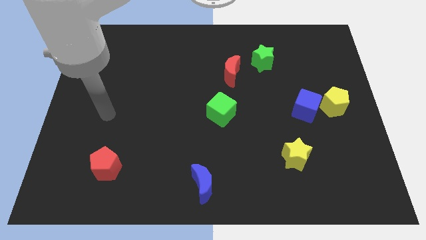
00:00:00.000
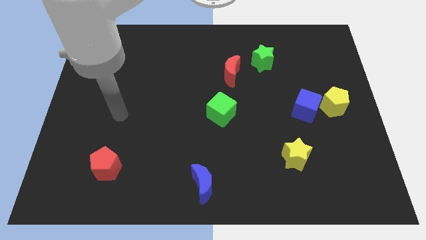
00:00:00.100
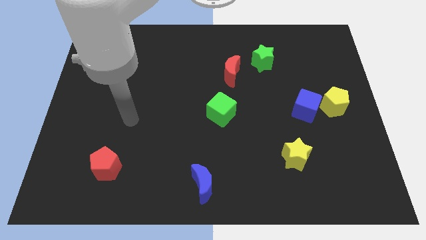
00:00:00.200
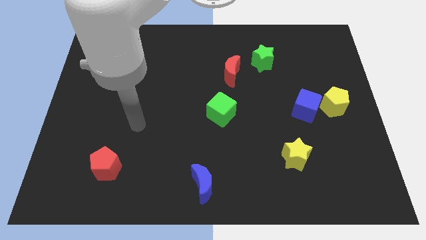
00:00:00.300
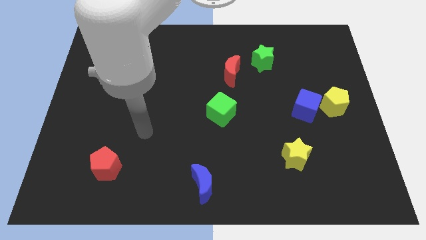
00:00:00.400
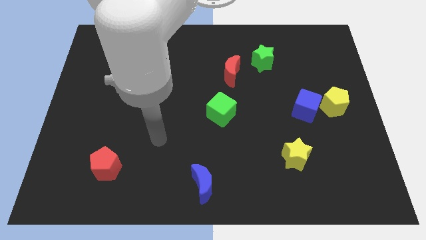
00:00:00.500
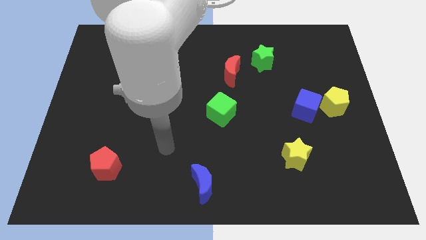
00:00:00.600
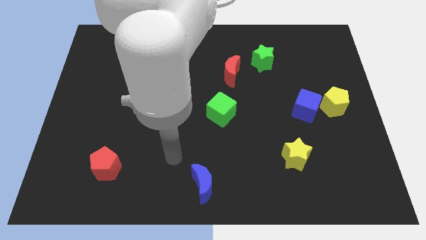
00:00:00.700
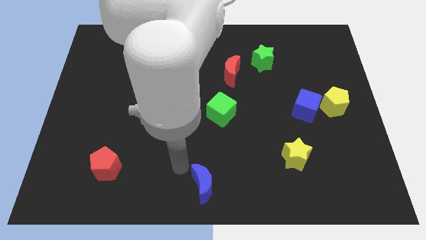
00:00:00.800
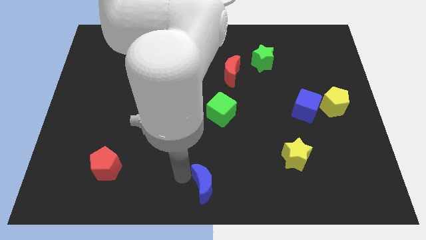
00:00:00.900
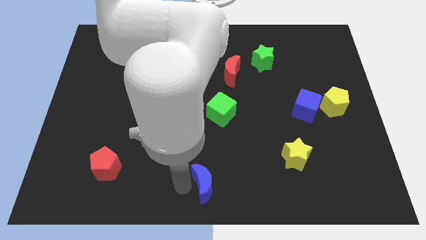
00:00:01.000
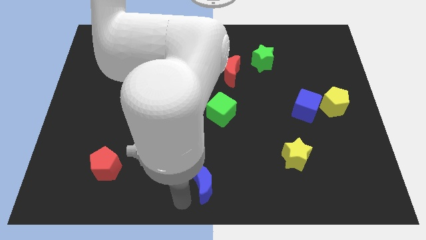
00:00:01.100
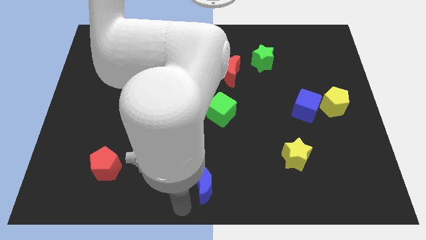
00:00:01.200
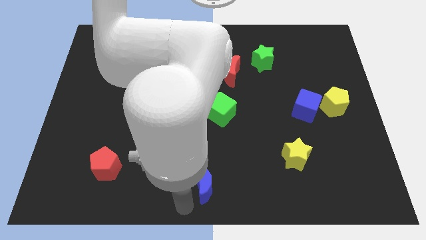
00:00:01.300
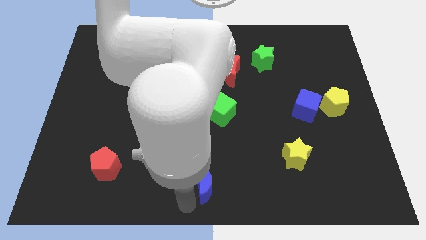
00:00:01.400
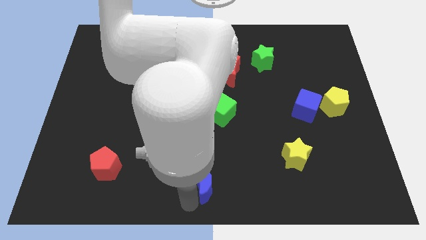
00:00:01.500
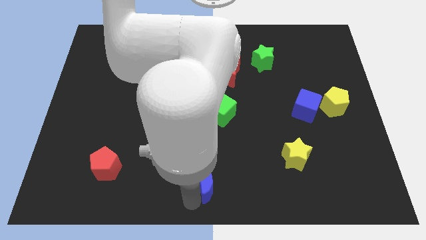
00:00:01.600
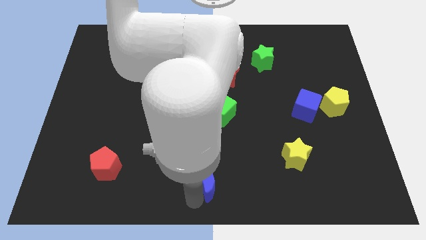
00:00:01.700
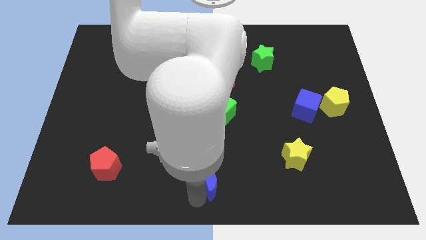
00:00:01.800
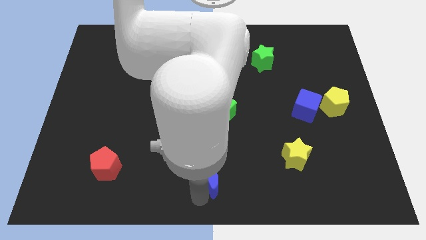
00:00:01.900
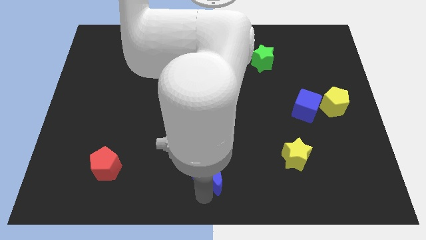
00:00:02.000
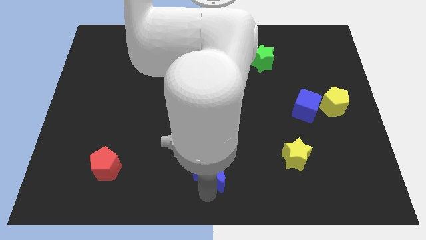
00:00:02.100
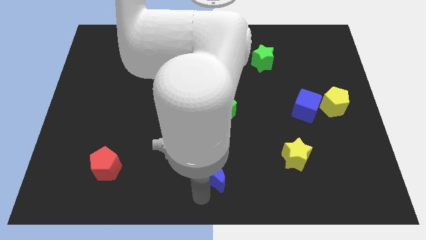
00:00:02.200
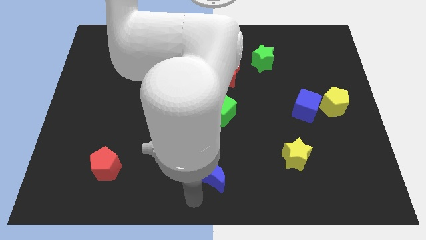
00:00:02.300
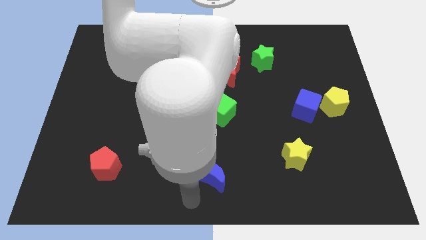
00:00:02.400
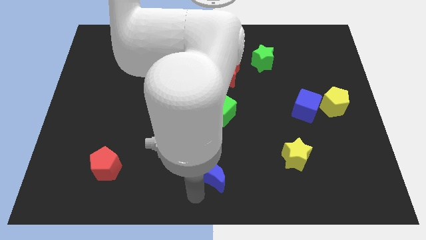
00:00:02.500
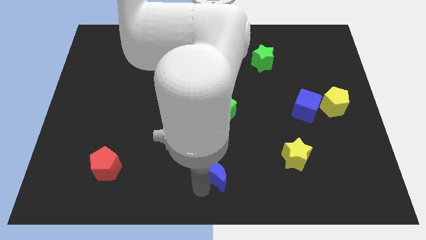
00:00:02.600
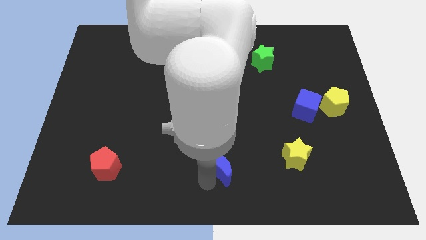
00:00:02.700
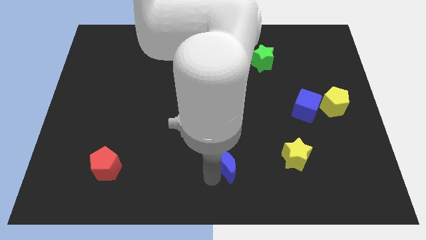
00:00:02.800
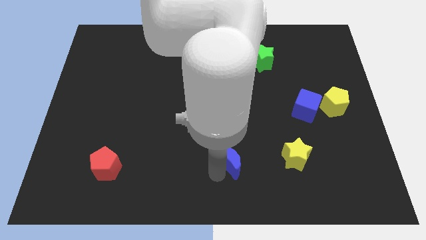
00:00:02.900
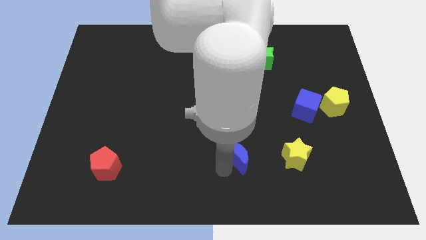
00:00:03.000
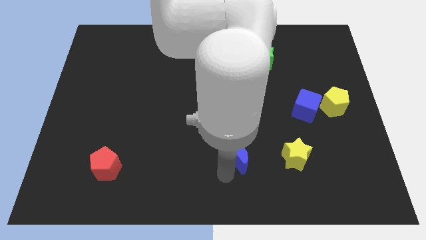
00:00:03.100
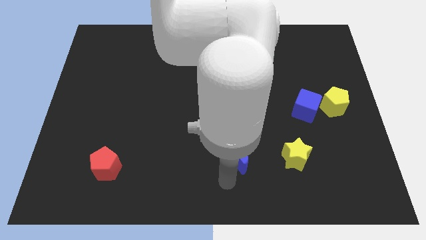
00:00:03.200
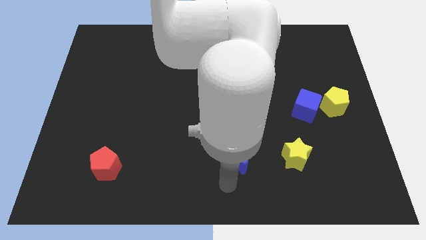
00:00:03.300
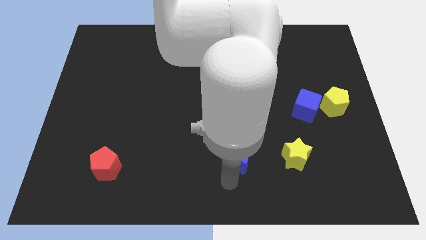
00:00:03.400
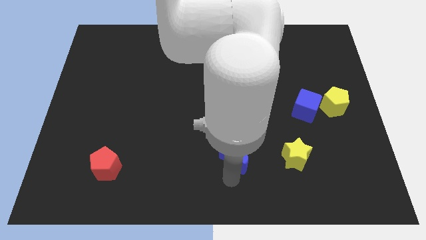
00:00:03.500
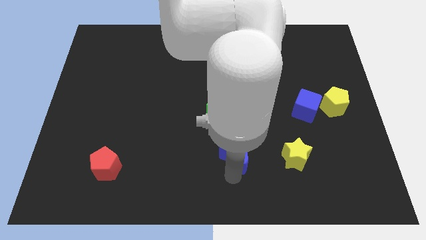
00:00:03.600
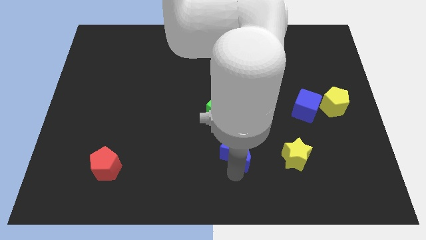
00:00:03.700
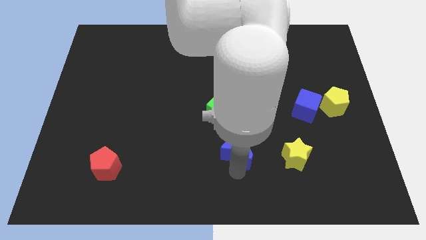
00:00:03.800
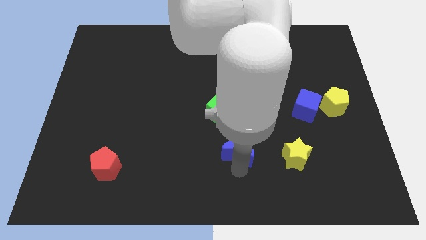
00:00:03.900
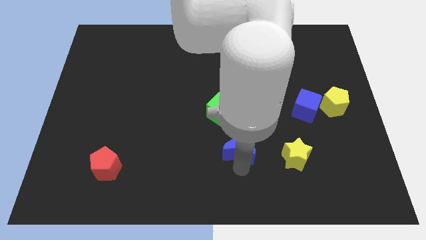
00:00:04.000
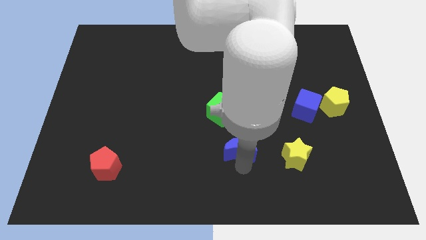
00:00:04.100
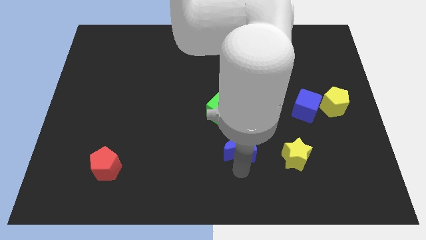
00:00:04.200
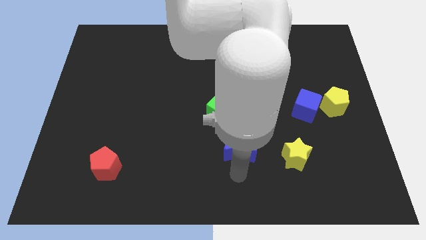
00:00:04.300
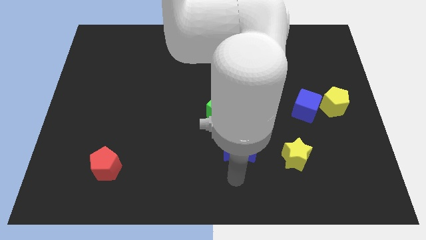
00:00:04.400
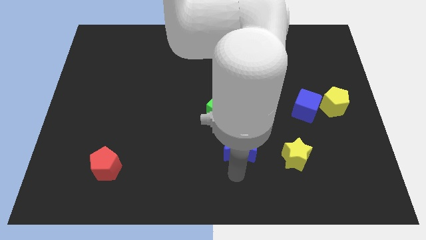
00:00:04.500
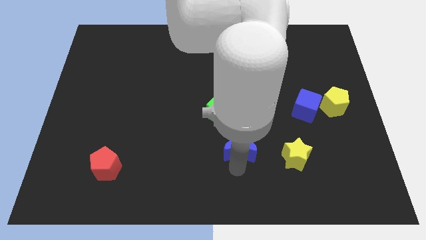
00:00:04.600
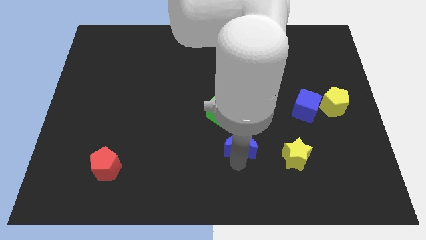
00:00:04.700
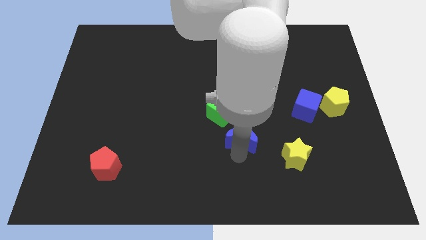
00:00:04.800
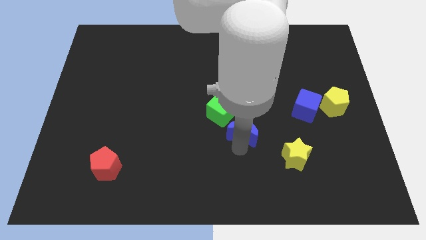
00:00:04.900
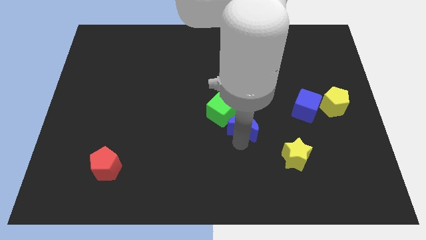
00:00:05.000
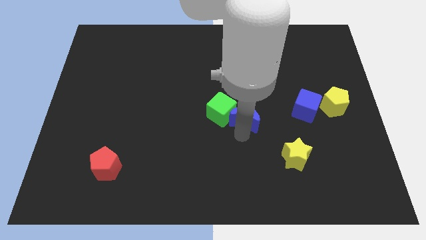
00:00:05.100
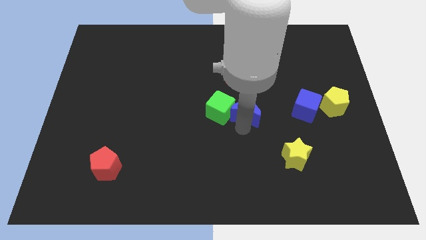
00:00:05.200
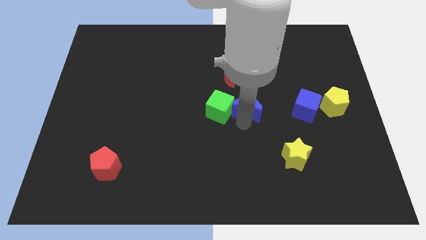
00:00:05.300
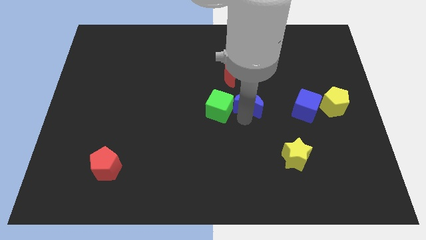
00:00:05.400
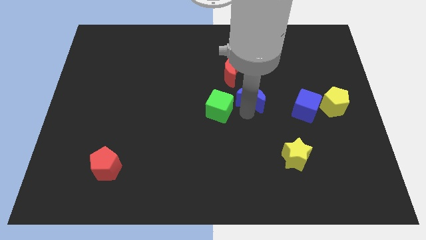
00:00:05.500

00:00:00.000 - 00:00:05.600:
push the blue moon to the bottom right side of the red moon

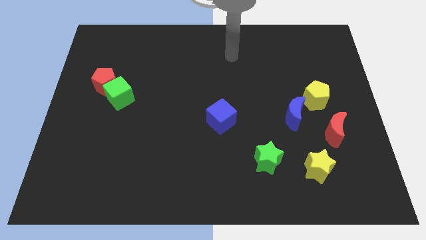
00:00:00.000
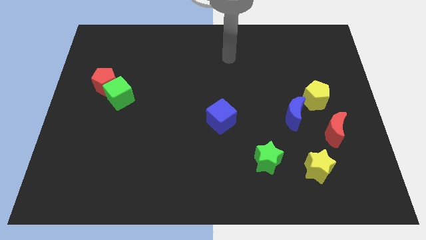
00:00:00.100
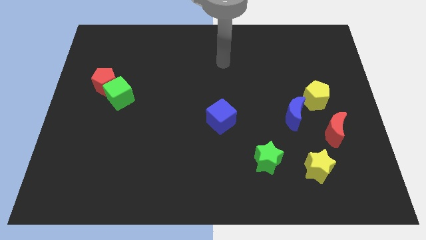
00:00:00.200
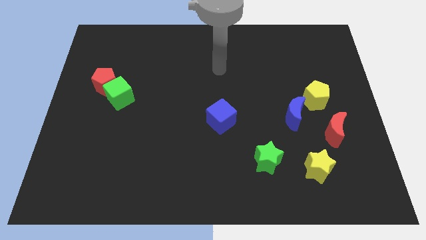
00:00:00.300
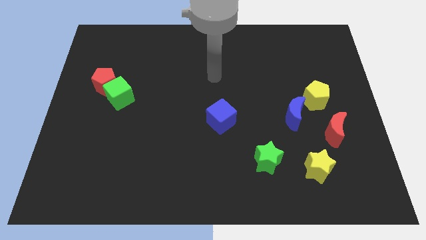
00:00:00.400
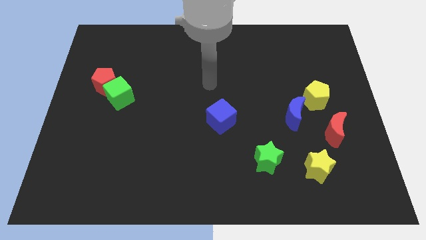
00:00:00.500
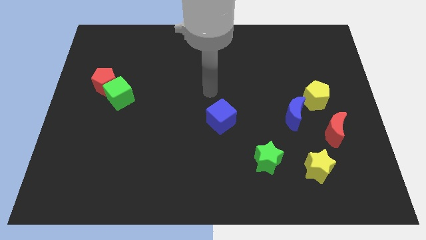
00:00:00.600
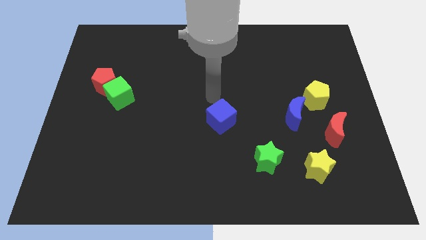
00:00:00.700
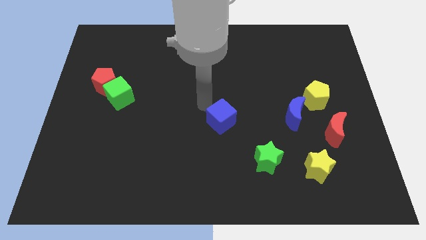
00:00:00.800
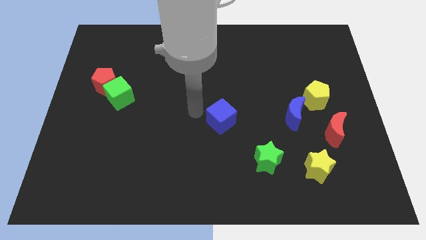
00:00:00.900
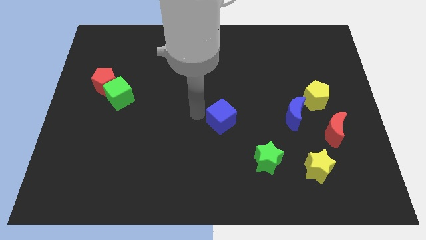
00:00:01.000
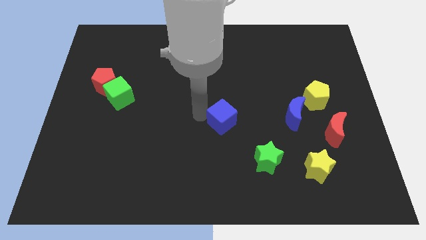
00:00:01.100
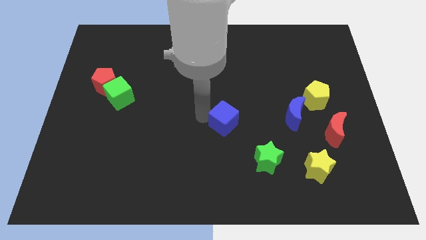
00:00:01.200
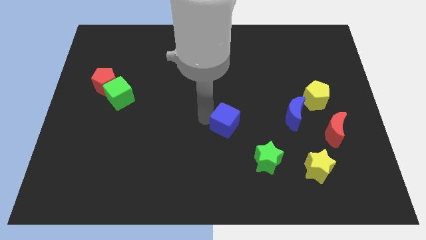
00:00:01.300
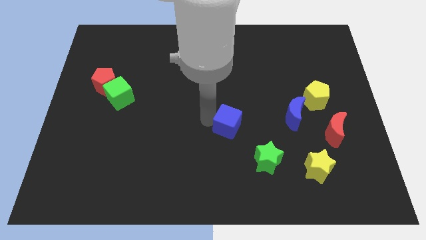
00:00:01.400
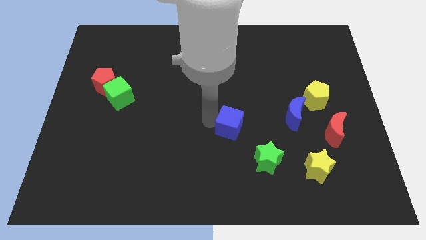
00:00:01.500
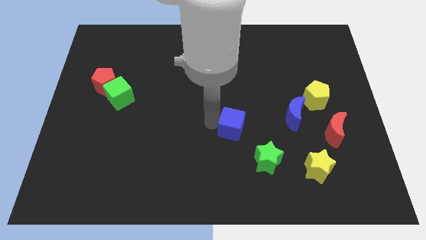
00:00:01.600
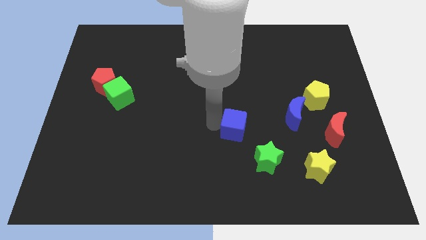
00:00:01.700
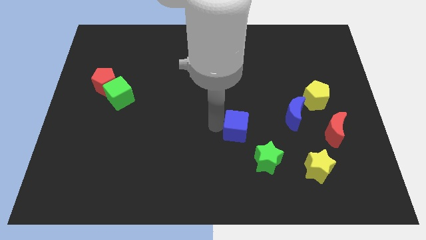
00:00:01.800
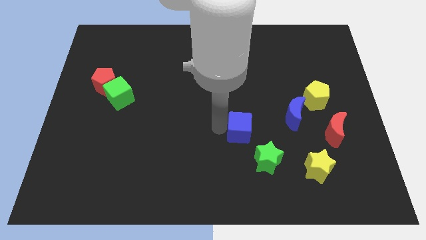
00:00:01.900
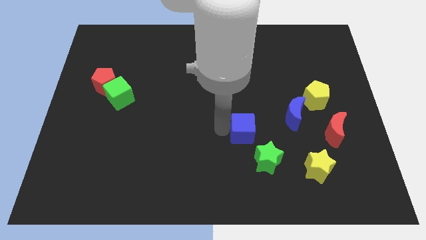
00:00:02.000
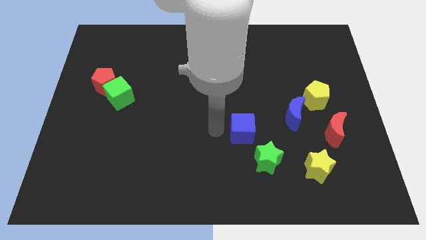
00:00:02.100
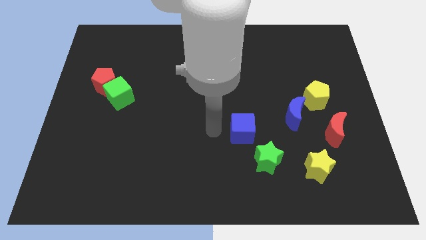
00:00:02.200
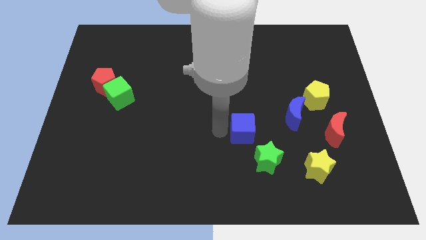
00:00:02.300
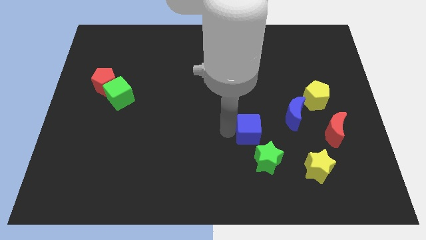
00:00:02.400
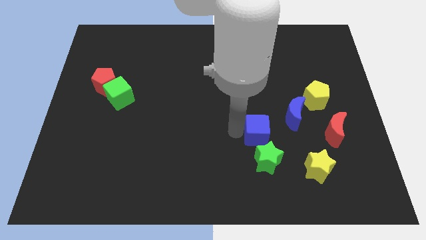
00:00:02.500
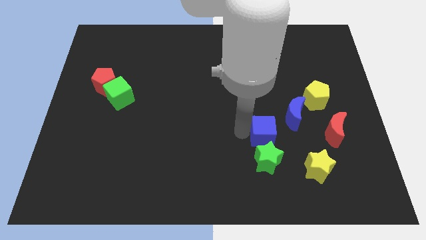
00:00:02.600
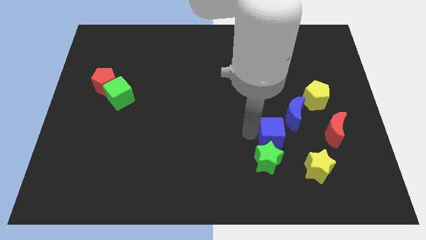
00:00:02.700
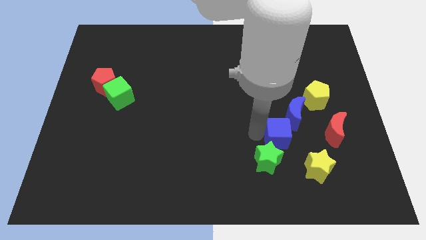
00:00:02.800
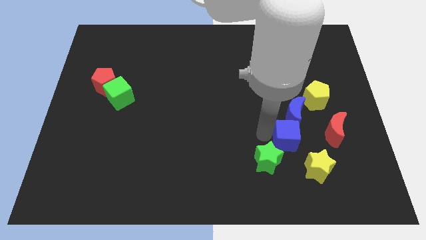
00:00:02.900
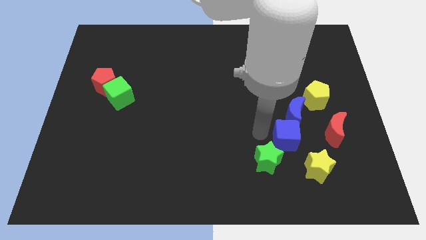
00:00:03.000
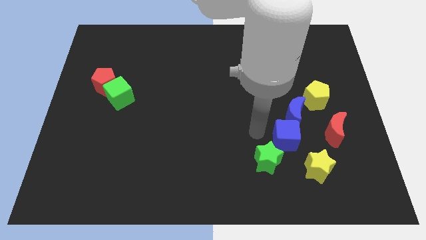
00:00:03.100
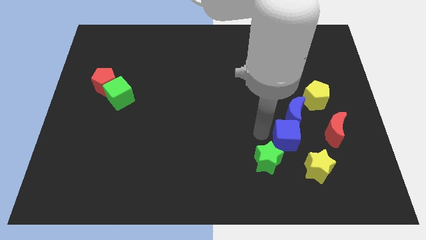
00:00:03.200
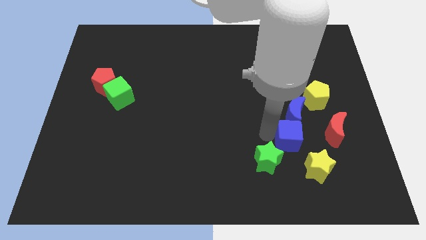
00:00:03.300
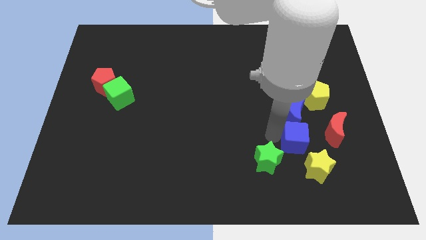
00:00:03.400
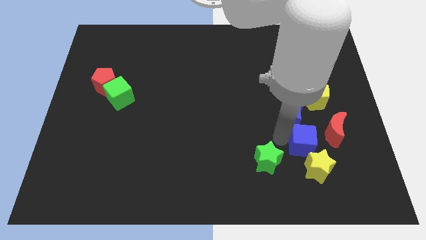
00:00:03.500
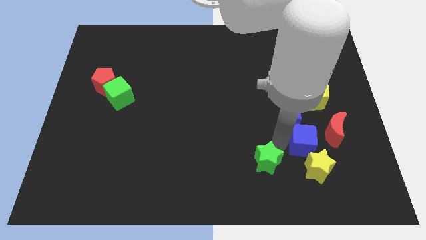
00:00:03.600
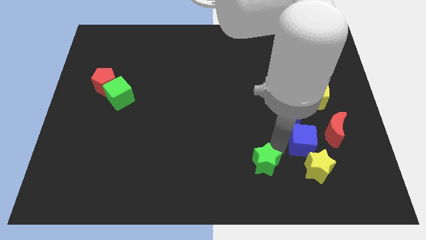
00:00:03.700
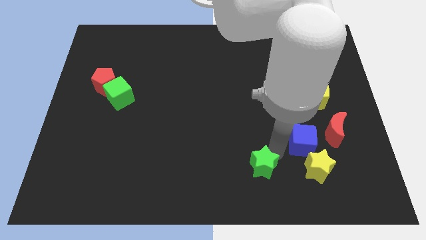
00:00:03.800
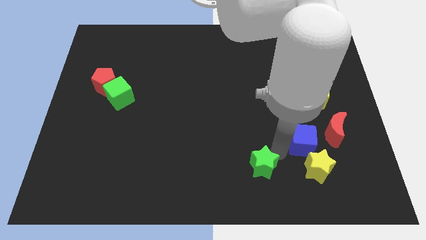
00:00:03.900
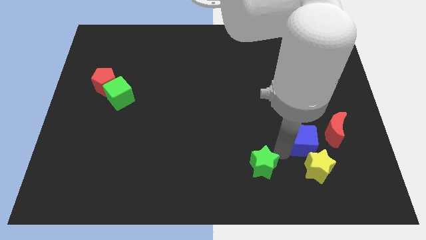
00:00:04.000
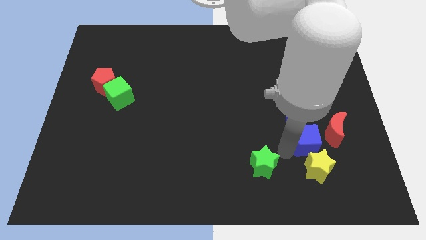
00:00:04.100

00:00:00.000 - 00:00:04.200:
move the blue cube below the yellow pentagon
